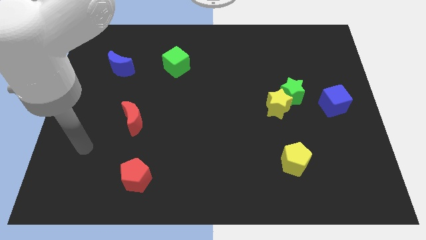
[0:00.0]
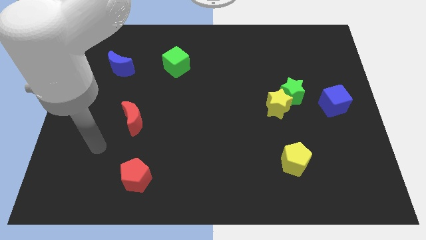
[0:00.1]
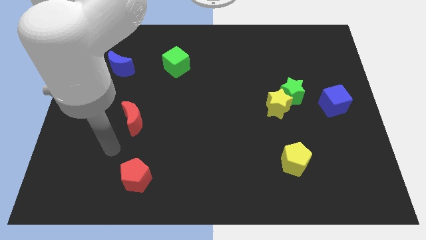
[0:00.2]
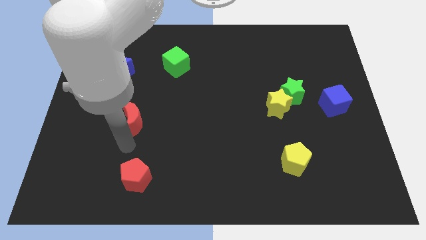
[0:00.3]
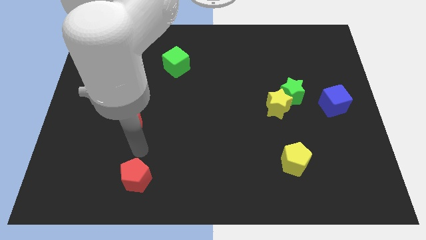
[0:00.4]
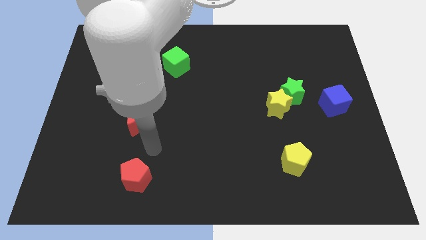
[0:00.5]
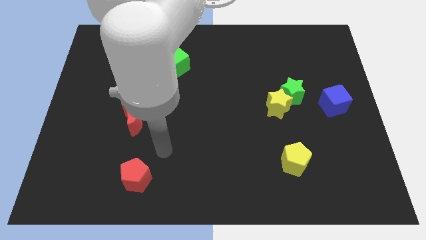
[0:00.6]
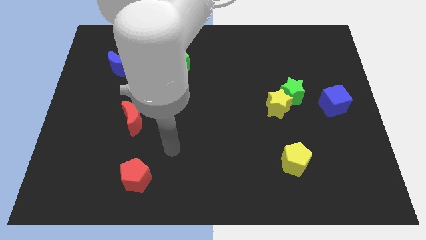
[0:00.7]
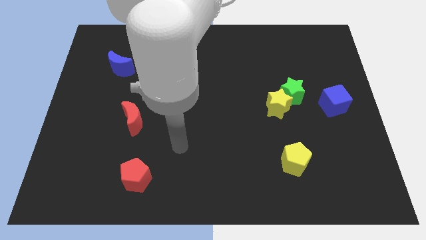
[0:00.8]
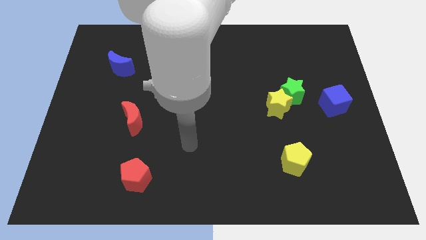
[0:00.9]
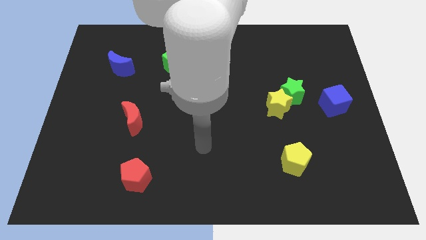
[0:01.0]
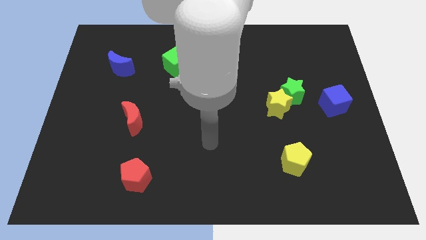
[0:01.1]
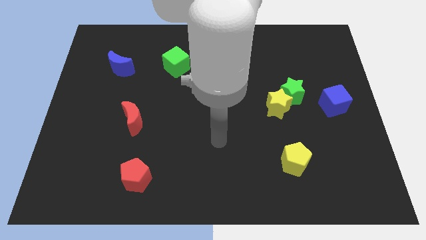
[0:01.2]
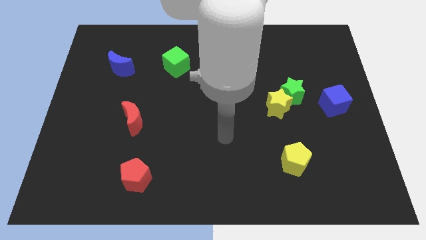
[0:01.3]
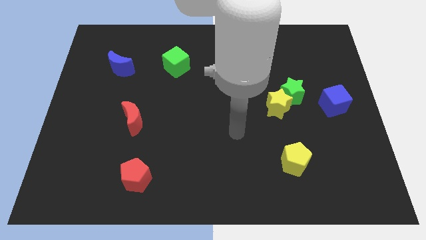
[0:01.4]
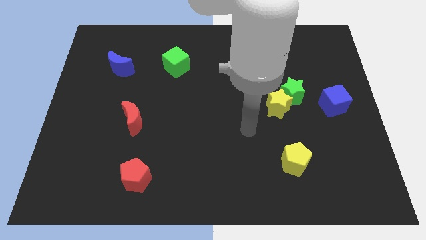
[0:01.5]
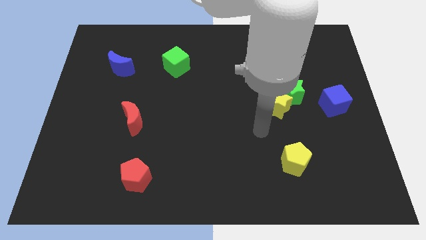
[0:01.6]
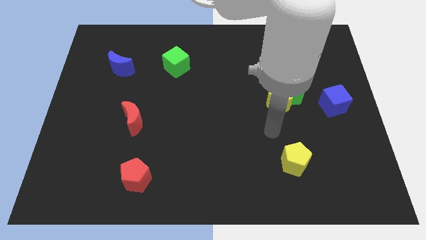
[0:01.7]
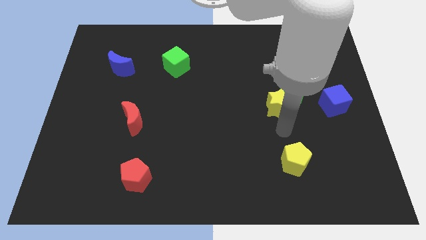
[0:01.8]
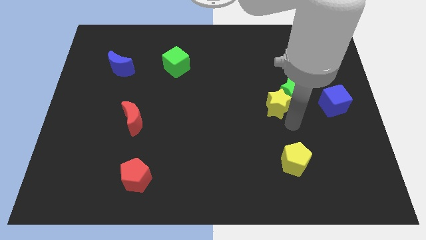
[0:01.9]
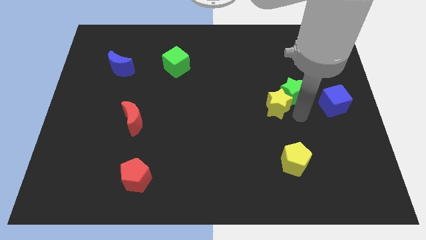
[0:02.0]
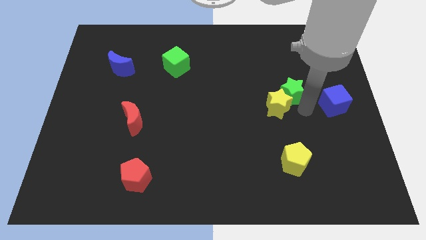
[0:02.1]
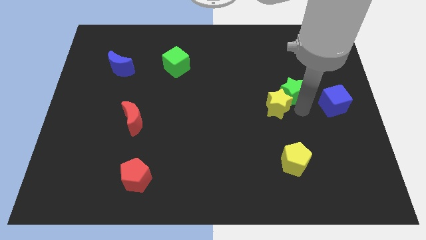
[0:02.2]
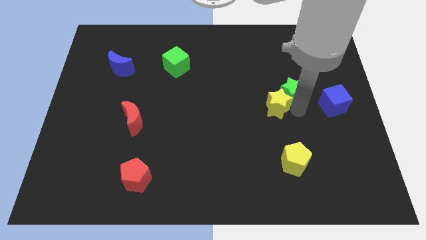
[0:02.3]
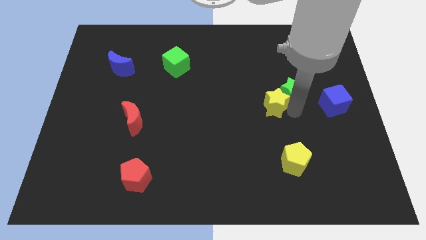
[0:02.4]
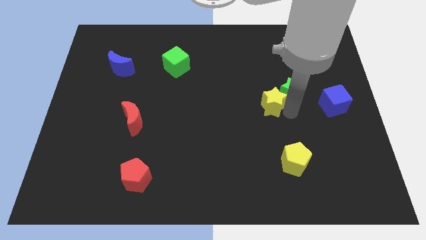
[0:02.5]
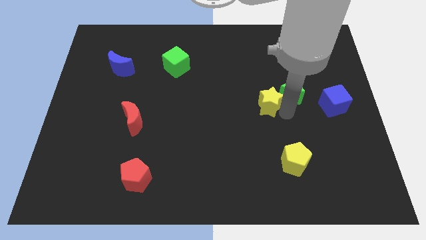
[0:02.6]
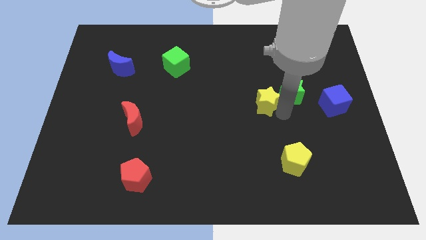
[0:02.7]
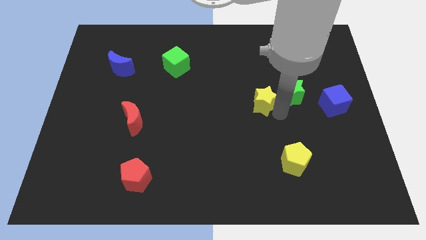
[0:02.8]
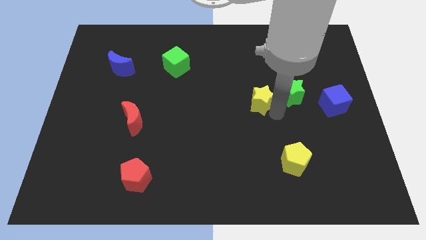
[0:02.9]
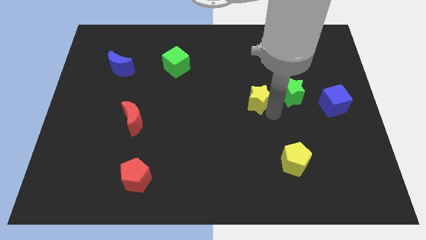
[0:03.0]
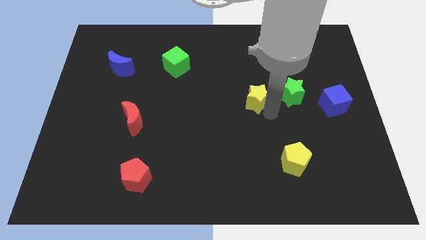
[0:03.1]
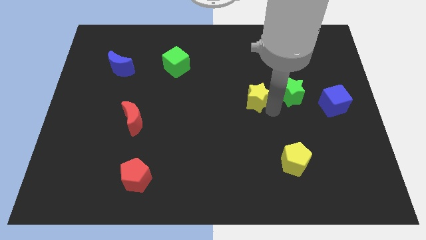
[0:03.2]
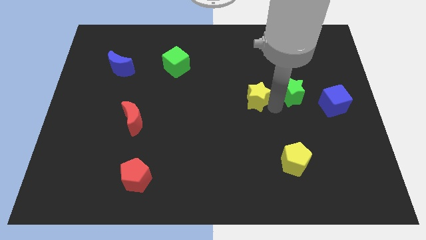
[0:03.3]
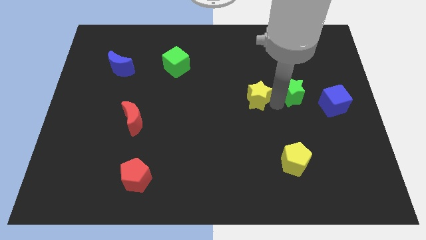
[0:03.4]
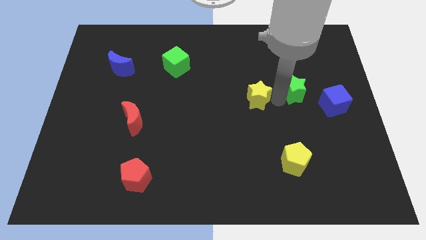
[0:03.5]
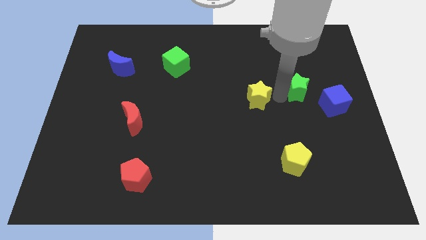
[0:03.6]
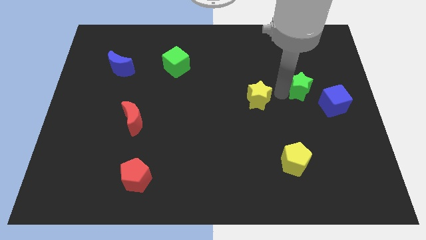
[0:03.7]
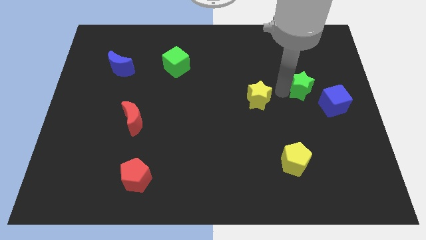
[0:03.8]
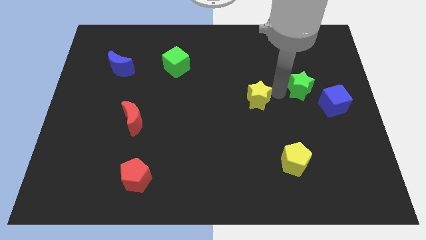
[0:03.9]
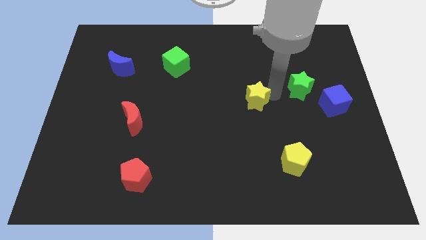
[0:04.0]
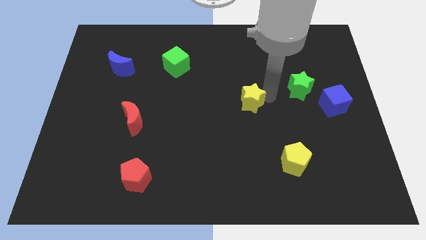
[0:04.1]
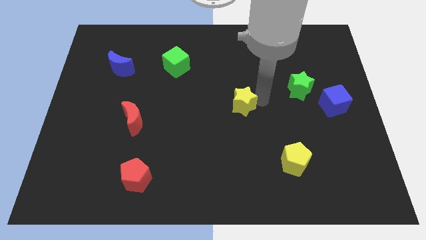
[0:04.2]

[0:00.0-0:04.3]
push the yellow star left slightly

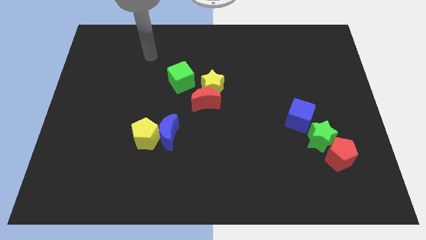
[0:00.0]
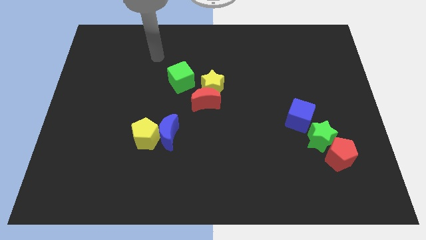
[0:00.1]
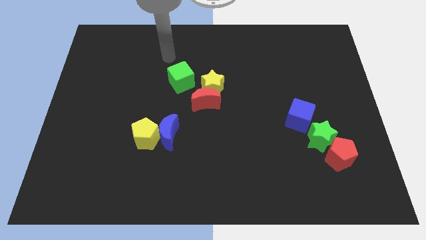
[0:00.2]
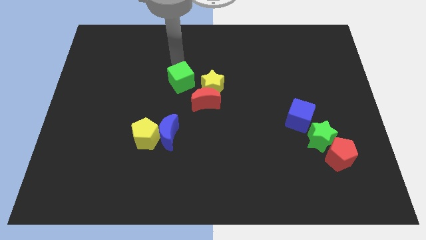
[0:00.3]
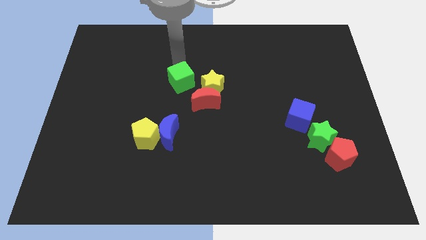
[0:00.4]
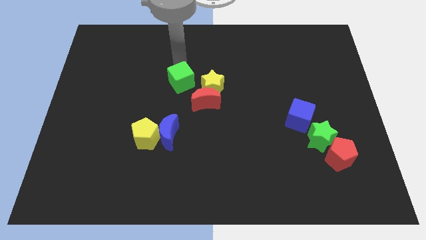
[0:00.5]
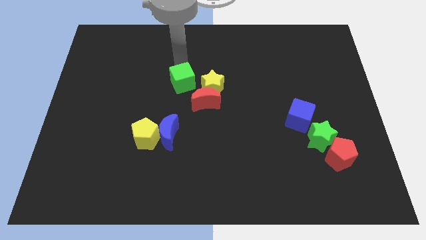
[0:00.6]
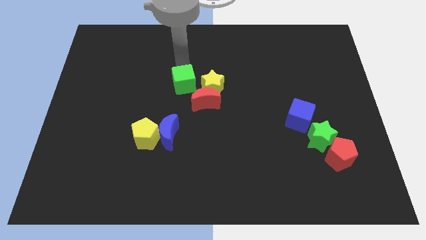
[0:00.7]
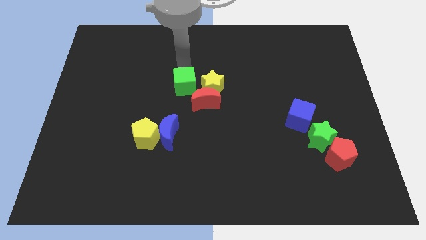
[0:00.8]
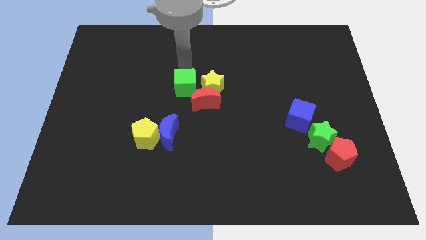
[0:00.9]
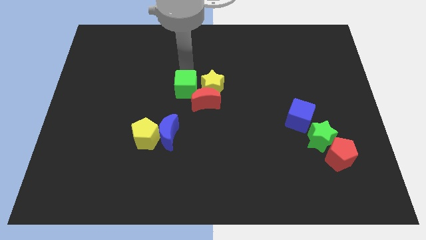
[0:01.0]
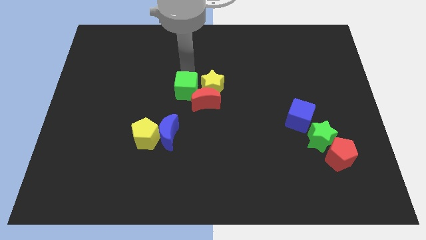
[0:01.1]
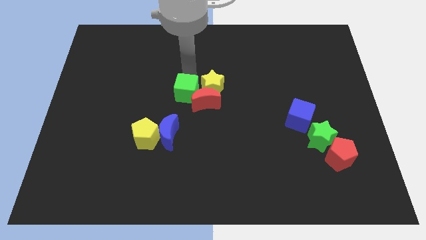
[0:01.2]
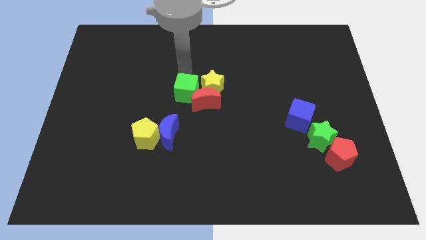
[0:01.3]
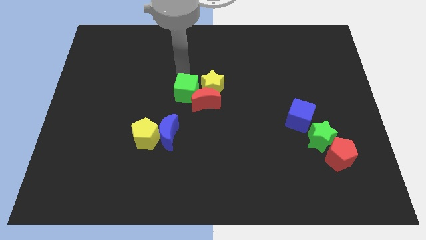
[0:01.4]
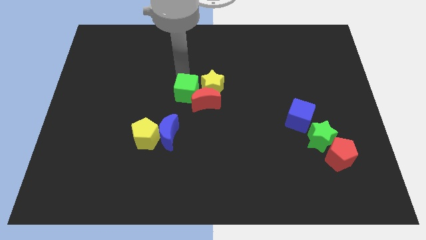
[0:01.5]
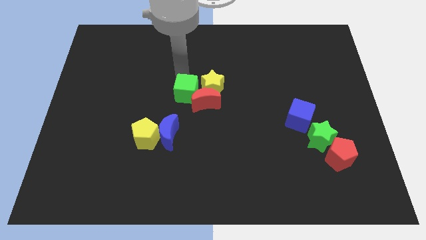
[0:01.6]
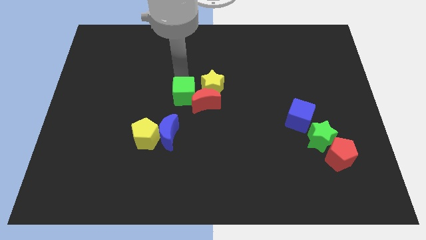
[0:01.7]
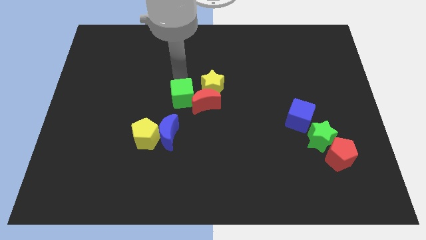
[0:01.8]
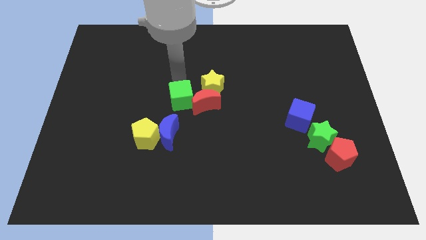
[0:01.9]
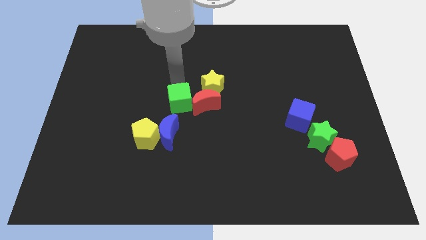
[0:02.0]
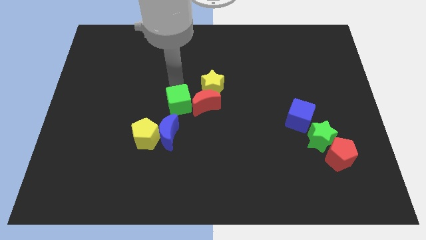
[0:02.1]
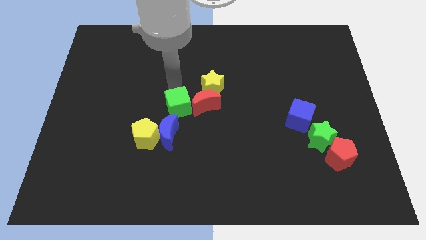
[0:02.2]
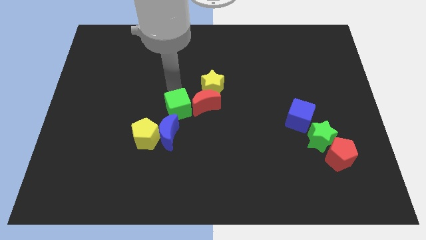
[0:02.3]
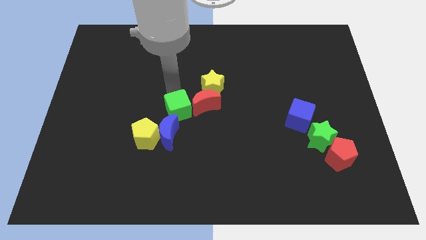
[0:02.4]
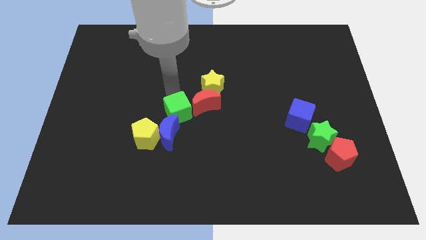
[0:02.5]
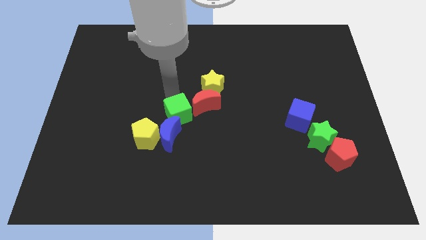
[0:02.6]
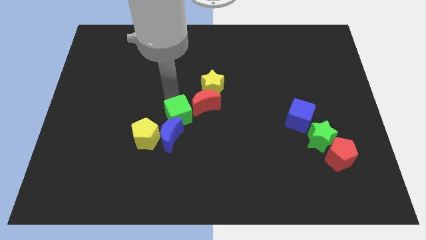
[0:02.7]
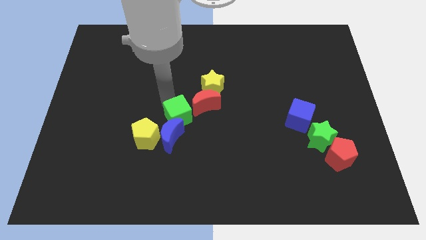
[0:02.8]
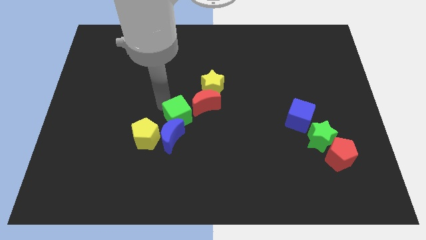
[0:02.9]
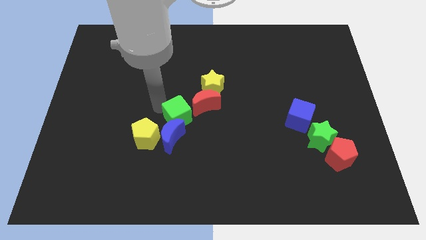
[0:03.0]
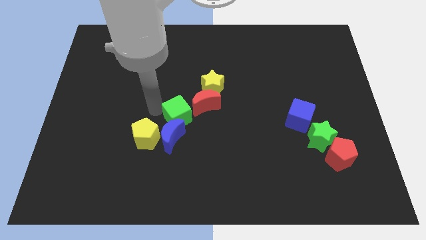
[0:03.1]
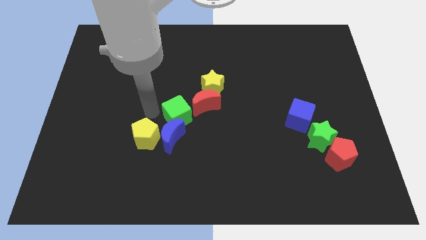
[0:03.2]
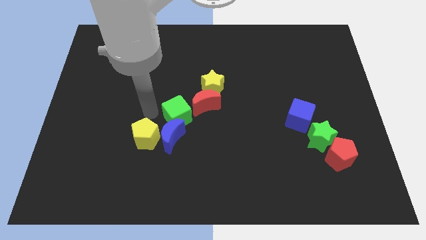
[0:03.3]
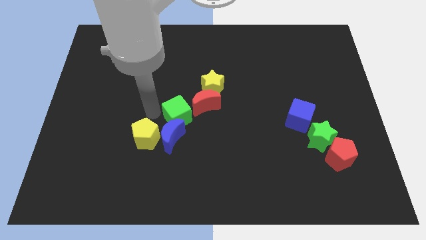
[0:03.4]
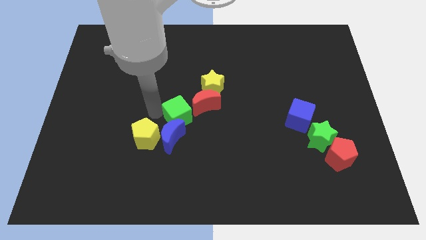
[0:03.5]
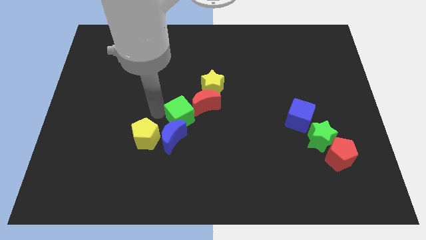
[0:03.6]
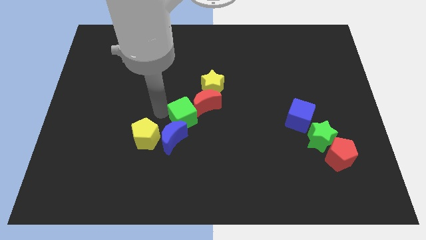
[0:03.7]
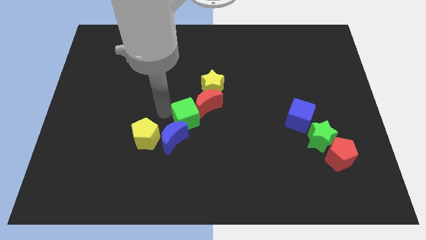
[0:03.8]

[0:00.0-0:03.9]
push the green cube down and right slightly
